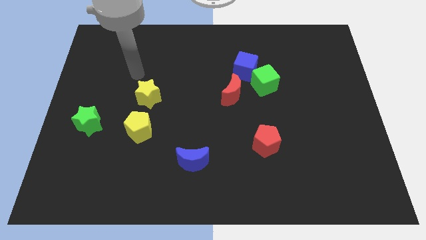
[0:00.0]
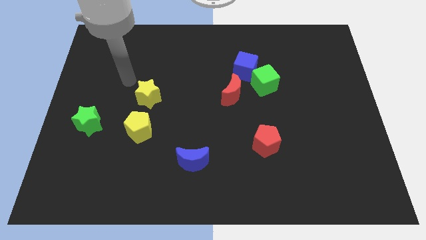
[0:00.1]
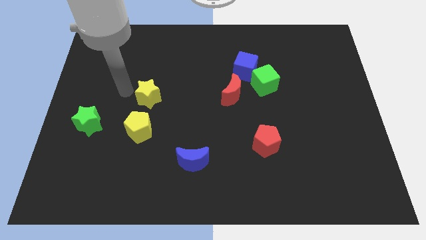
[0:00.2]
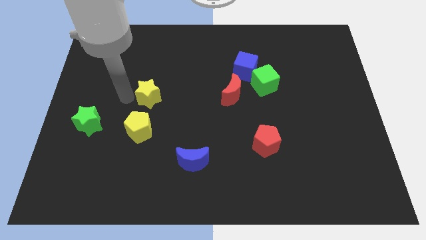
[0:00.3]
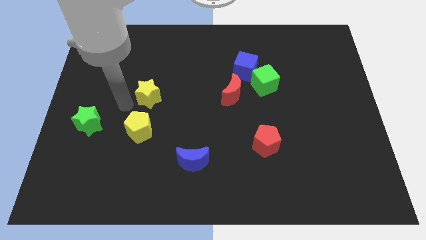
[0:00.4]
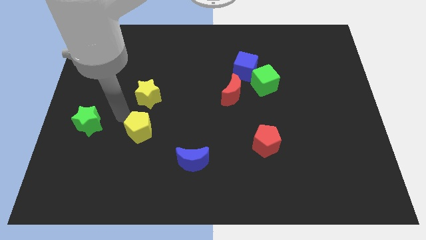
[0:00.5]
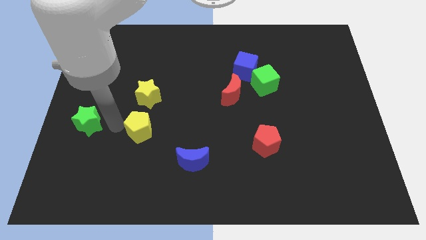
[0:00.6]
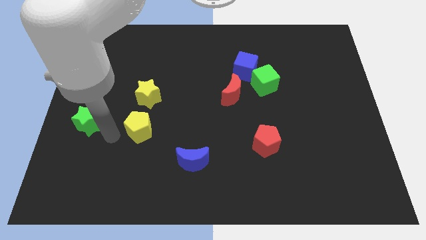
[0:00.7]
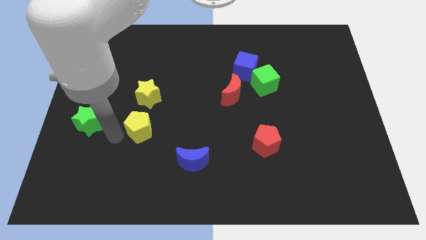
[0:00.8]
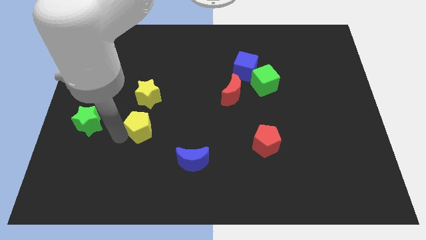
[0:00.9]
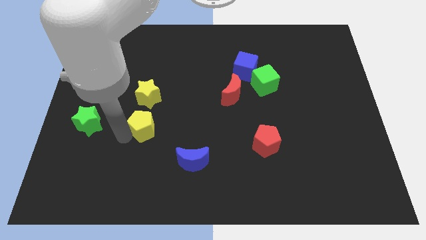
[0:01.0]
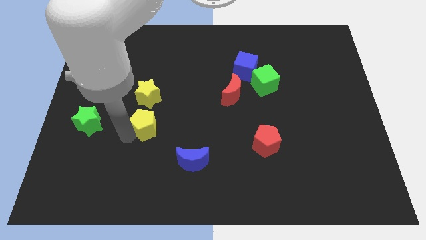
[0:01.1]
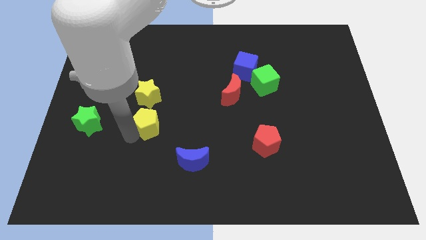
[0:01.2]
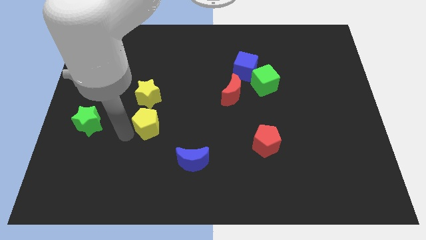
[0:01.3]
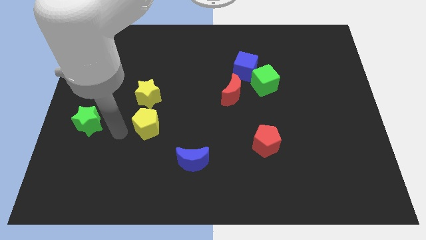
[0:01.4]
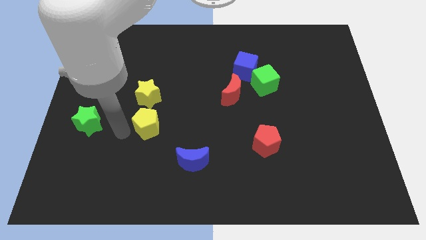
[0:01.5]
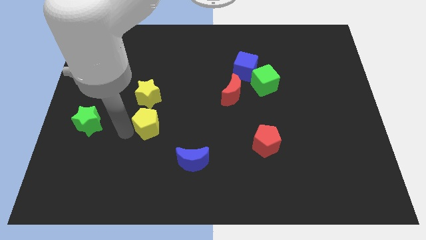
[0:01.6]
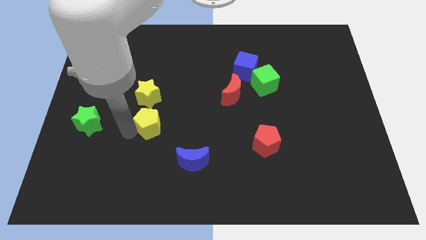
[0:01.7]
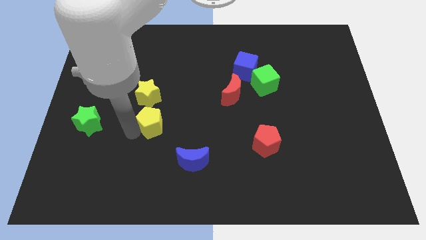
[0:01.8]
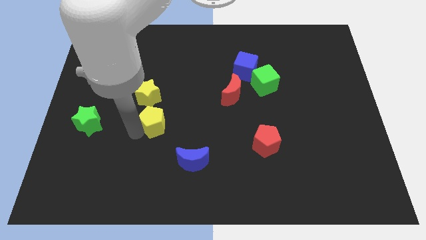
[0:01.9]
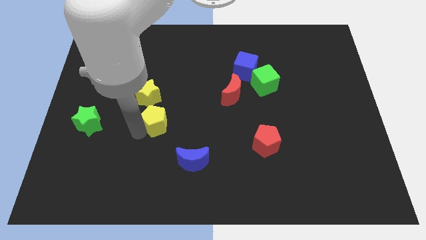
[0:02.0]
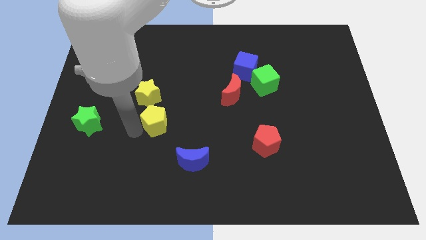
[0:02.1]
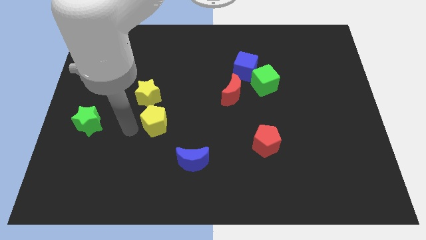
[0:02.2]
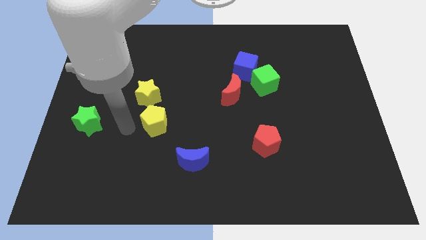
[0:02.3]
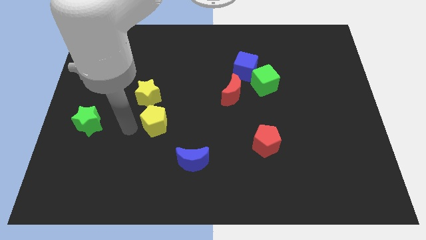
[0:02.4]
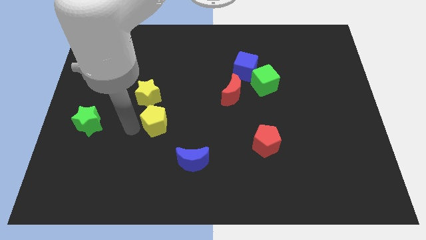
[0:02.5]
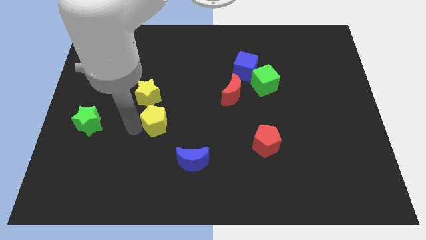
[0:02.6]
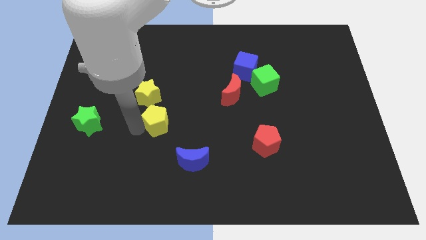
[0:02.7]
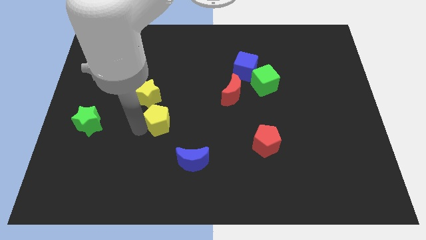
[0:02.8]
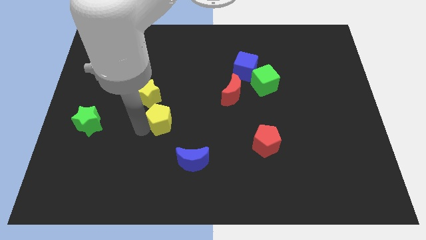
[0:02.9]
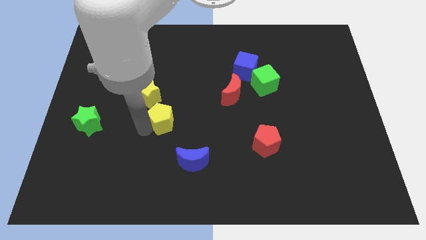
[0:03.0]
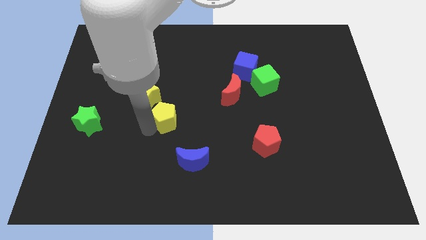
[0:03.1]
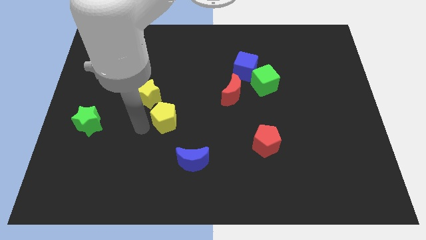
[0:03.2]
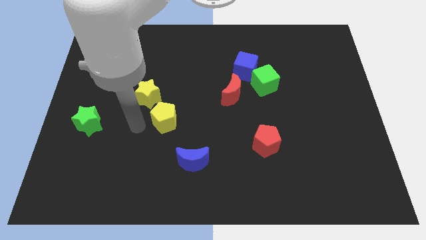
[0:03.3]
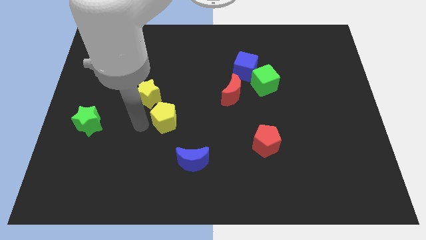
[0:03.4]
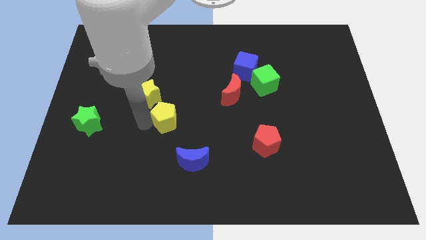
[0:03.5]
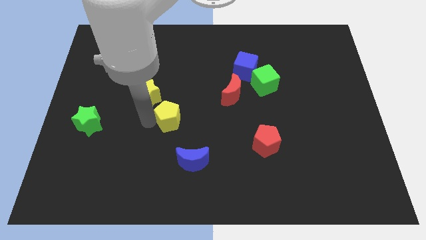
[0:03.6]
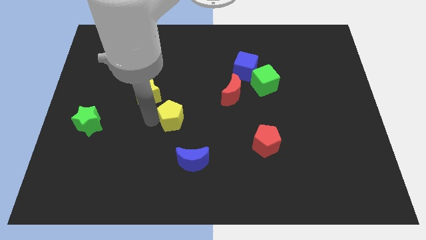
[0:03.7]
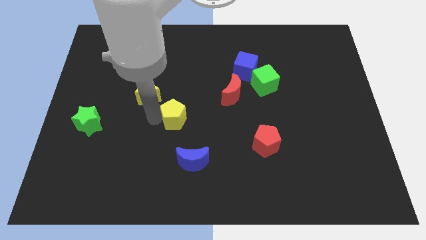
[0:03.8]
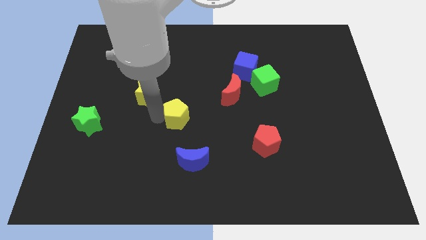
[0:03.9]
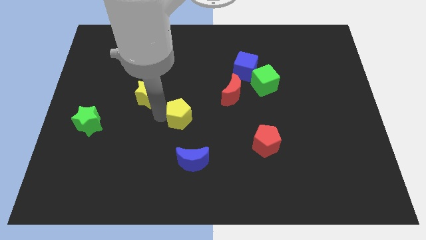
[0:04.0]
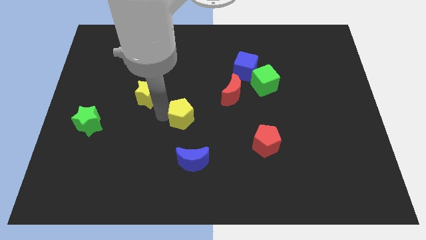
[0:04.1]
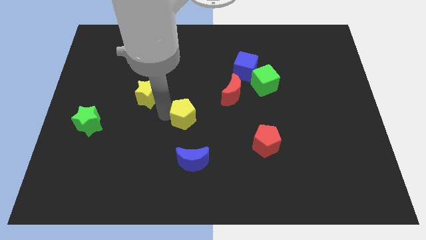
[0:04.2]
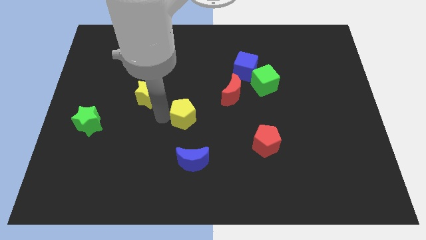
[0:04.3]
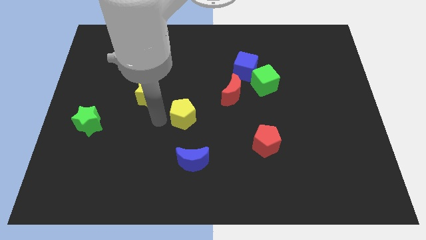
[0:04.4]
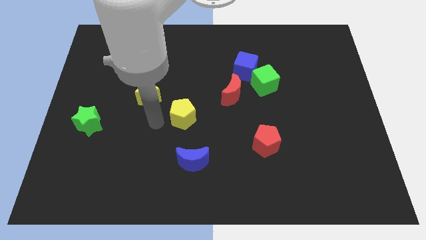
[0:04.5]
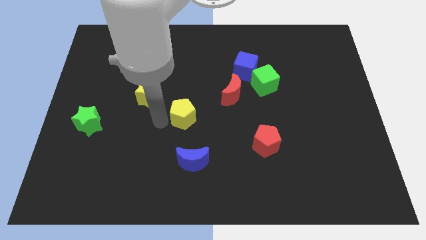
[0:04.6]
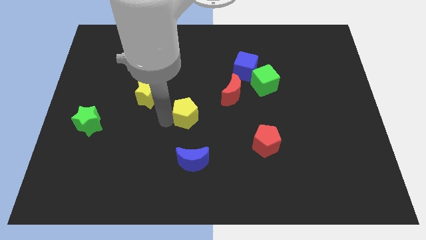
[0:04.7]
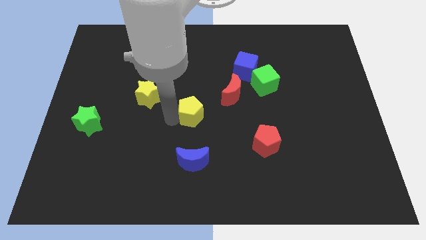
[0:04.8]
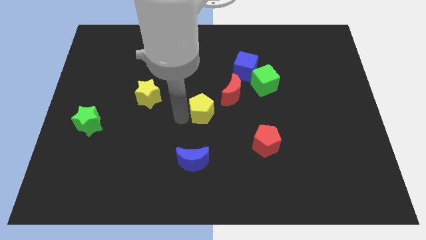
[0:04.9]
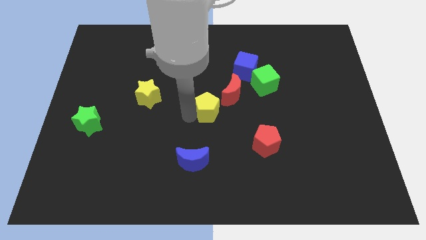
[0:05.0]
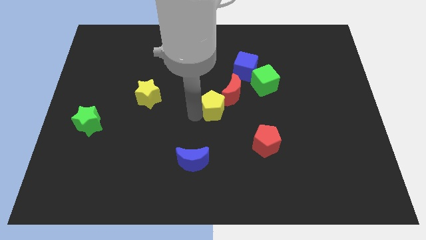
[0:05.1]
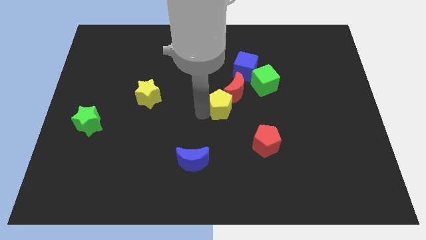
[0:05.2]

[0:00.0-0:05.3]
move the yellow pentagon to the red moon

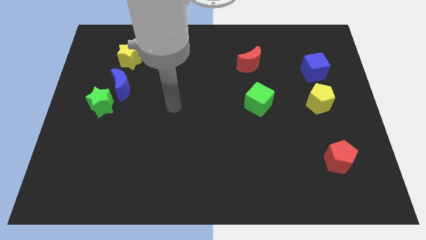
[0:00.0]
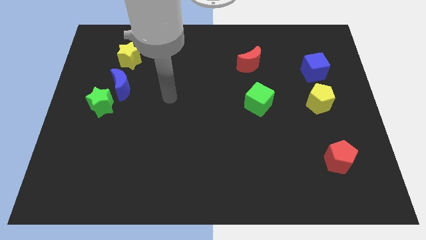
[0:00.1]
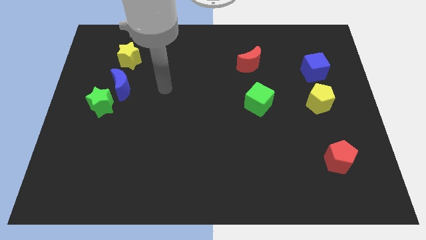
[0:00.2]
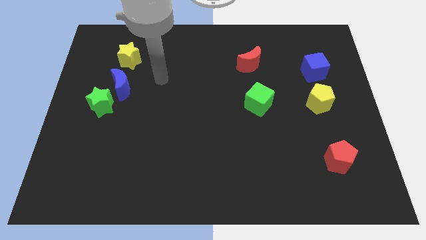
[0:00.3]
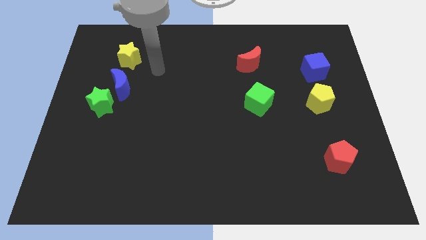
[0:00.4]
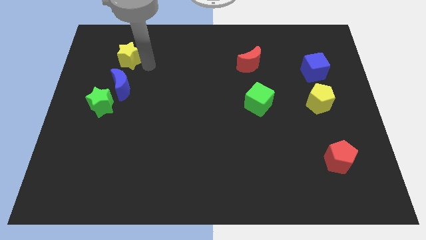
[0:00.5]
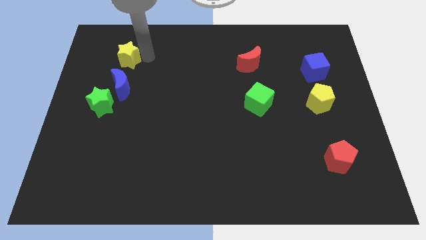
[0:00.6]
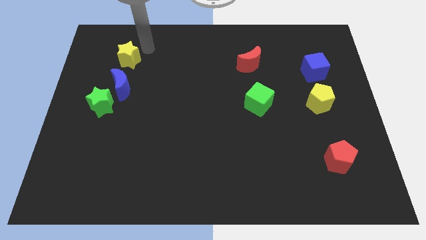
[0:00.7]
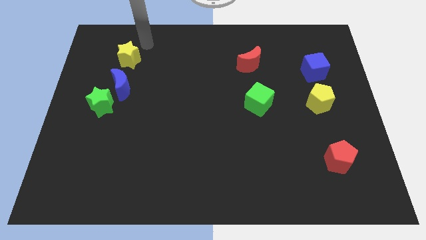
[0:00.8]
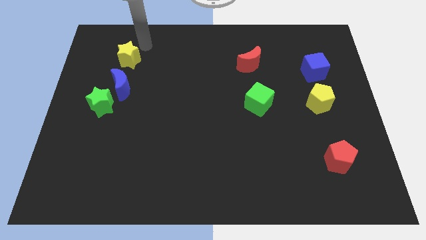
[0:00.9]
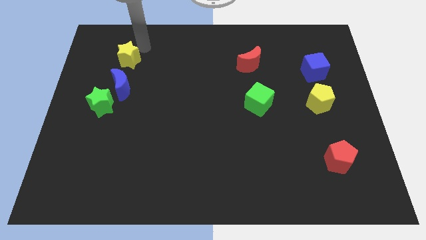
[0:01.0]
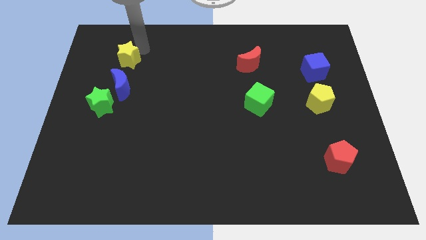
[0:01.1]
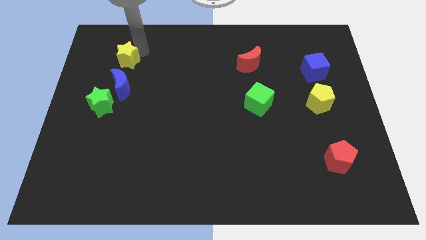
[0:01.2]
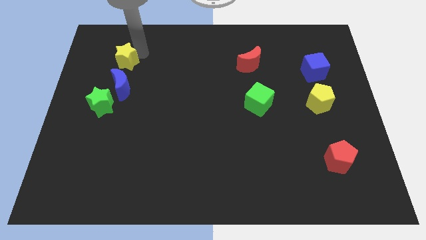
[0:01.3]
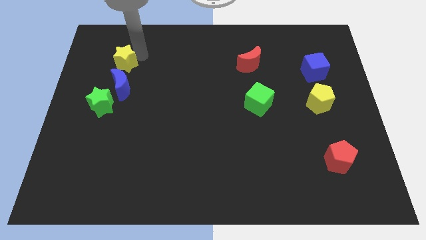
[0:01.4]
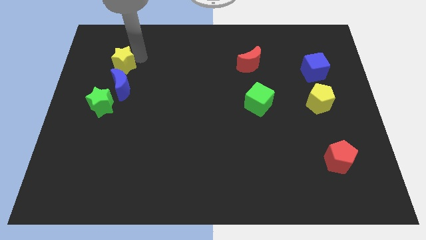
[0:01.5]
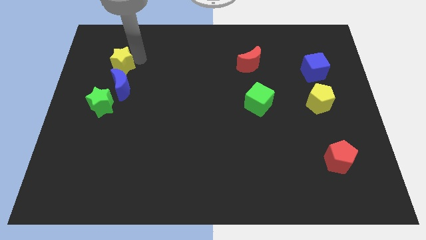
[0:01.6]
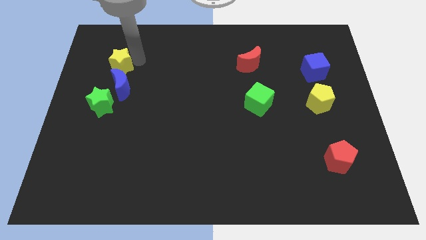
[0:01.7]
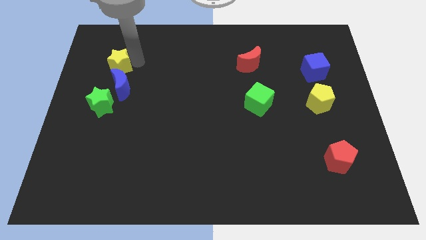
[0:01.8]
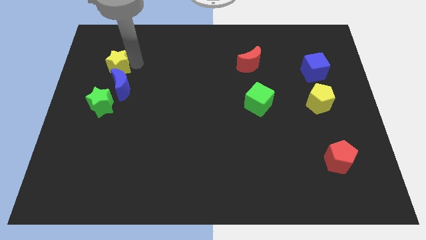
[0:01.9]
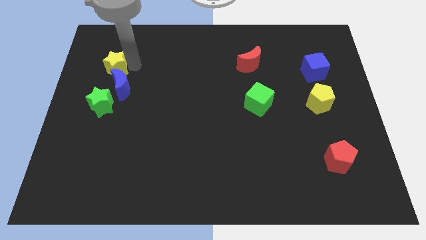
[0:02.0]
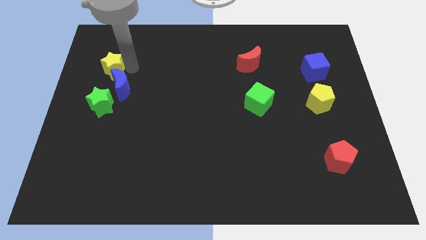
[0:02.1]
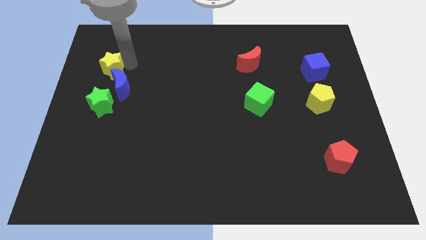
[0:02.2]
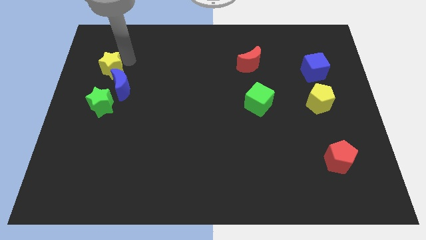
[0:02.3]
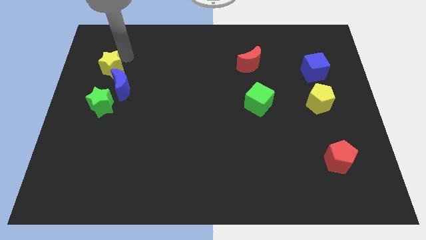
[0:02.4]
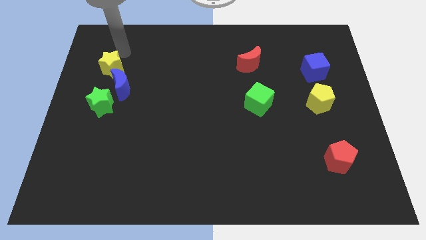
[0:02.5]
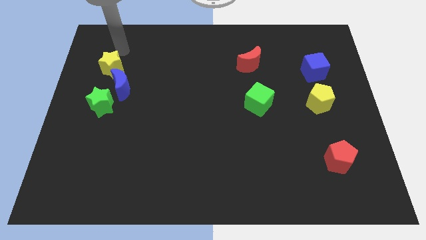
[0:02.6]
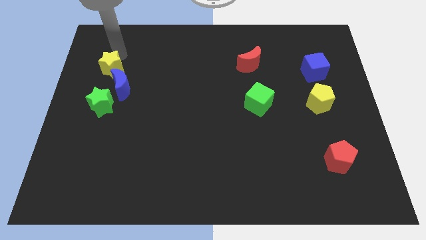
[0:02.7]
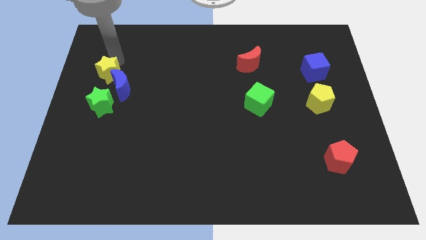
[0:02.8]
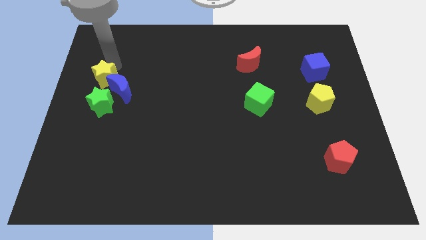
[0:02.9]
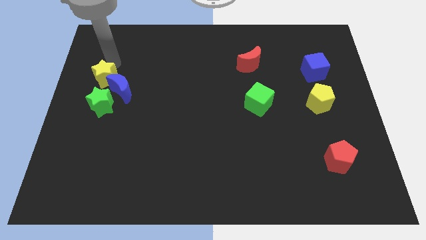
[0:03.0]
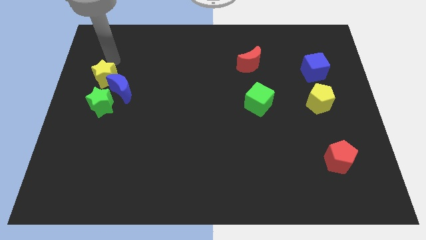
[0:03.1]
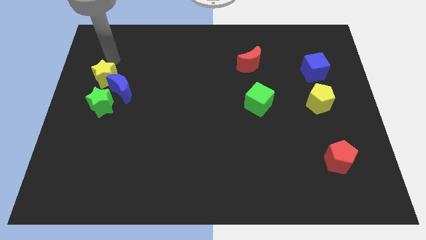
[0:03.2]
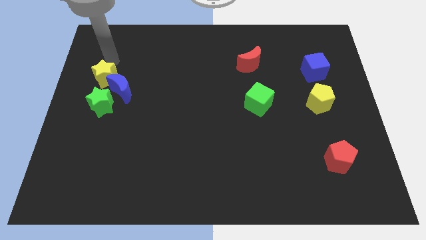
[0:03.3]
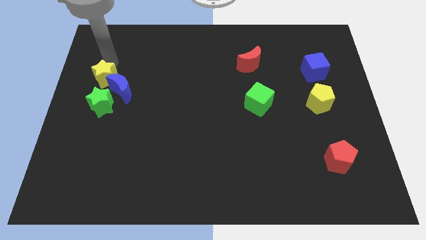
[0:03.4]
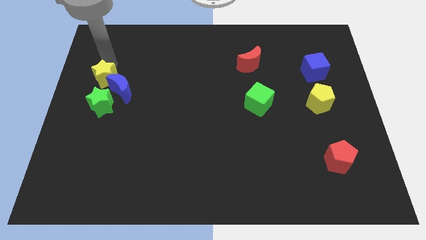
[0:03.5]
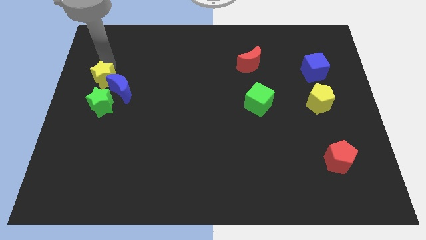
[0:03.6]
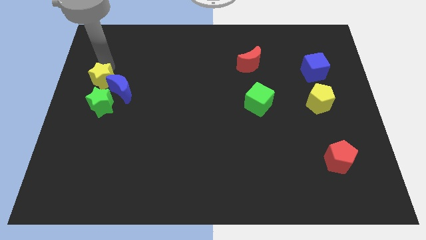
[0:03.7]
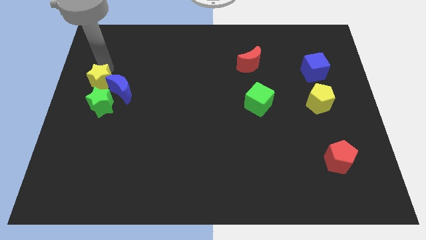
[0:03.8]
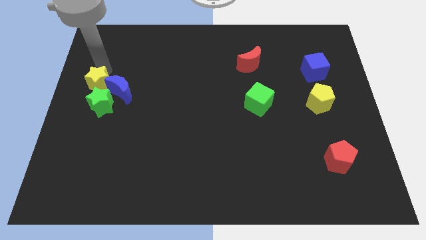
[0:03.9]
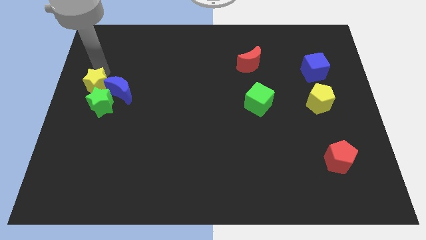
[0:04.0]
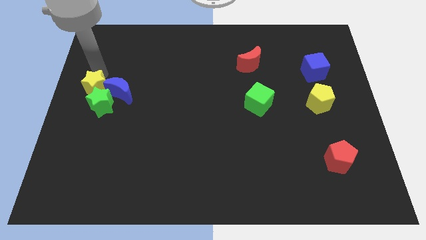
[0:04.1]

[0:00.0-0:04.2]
move the yellow star to the green star
